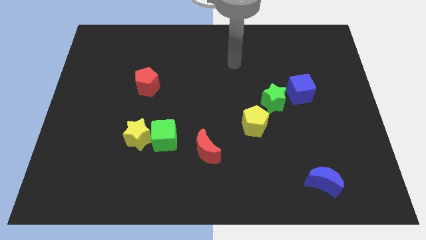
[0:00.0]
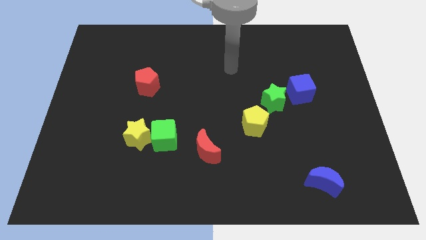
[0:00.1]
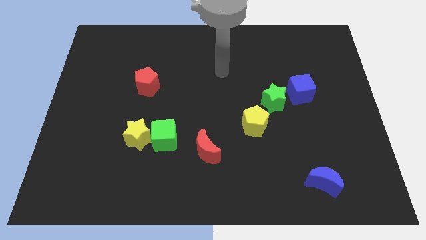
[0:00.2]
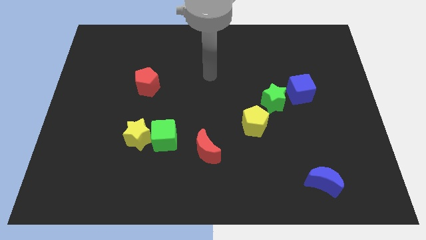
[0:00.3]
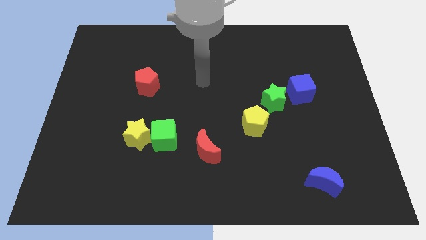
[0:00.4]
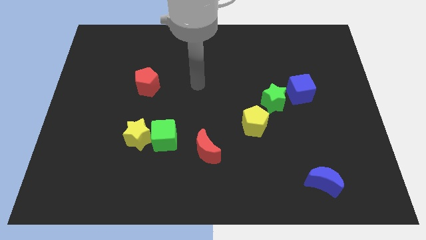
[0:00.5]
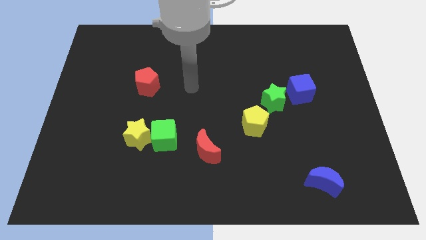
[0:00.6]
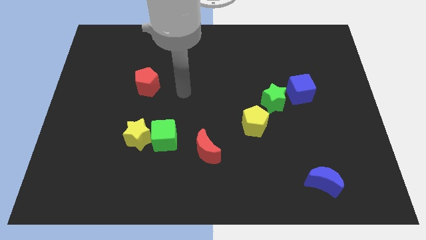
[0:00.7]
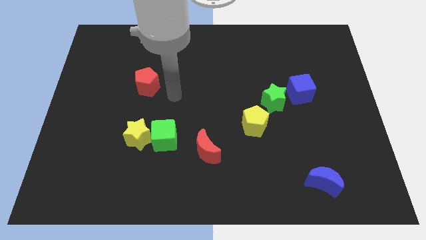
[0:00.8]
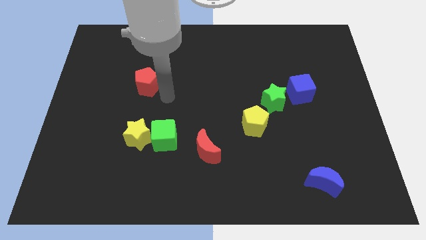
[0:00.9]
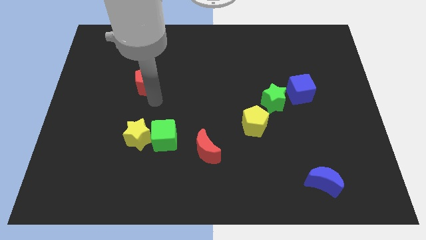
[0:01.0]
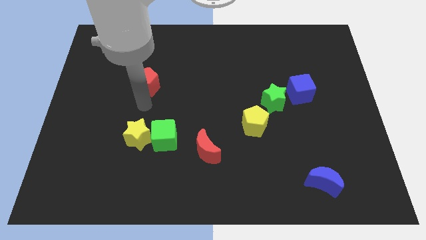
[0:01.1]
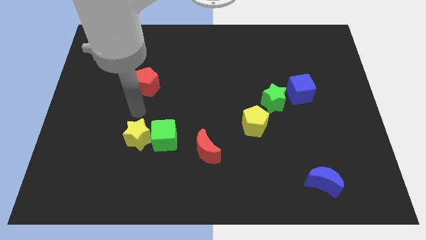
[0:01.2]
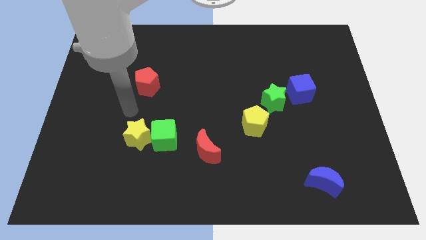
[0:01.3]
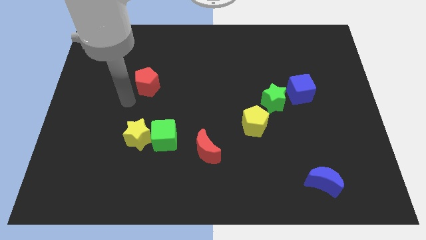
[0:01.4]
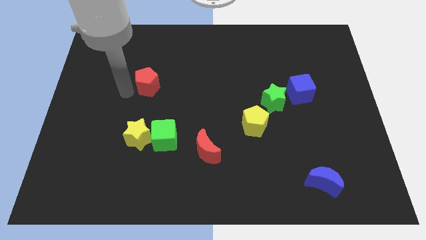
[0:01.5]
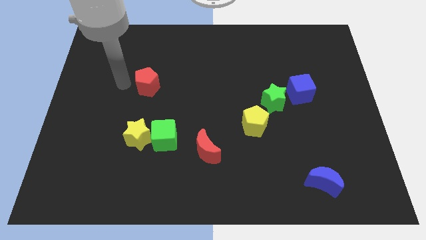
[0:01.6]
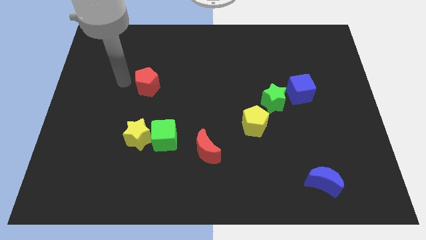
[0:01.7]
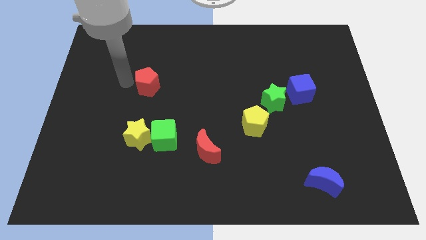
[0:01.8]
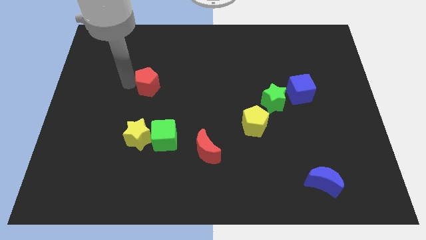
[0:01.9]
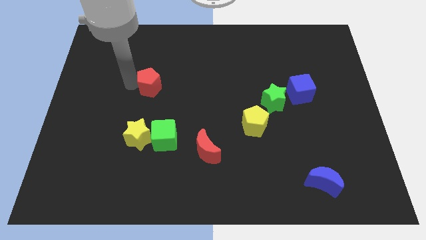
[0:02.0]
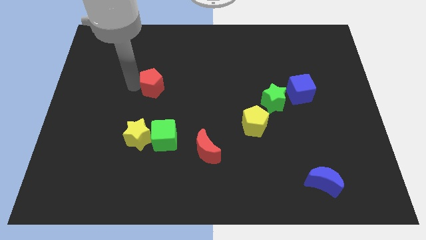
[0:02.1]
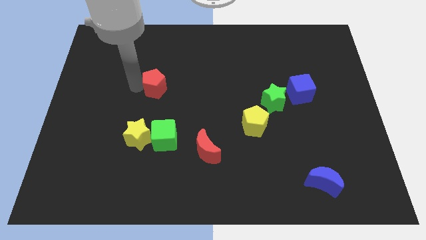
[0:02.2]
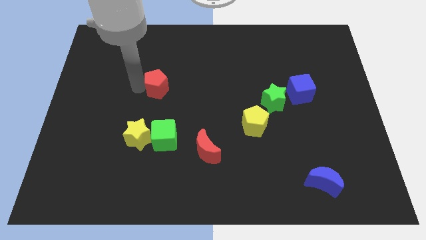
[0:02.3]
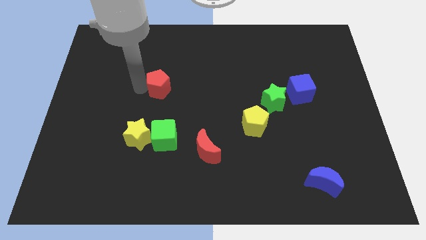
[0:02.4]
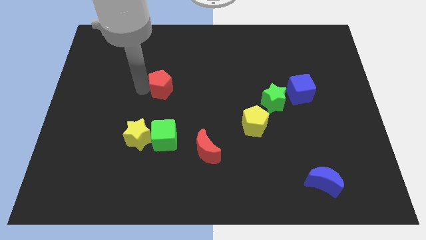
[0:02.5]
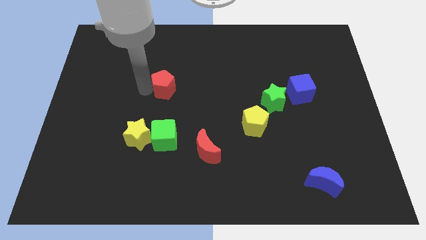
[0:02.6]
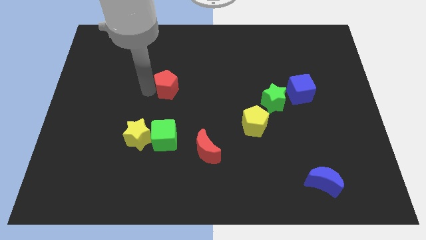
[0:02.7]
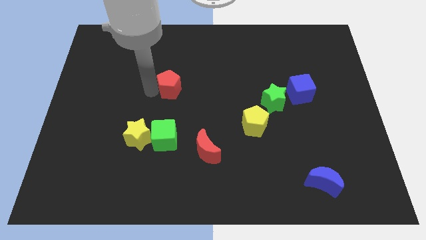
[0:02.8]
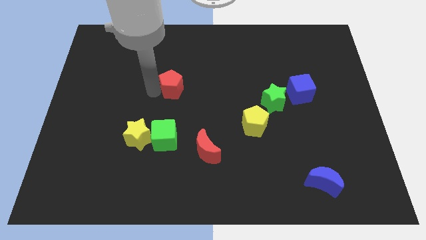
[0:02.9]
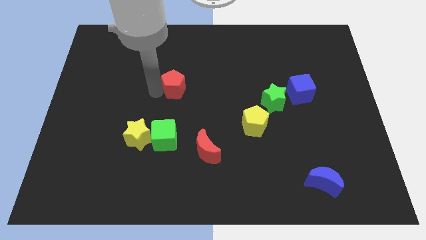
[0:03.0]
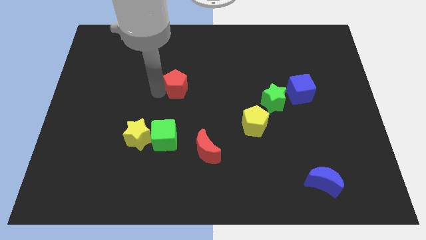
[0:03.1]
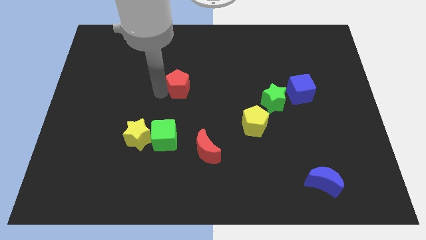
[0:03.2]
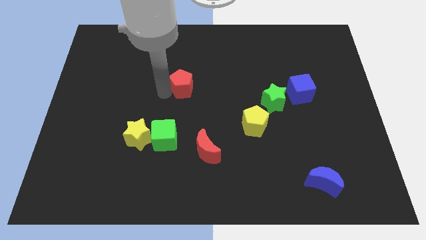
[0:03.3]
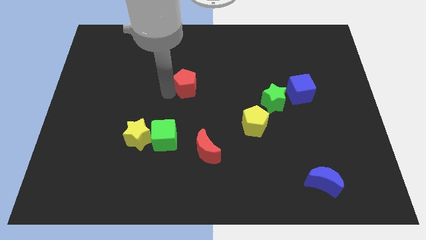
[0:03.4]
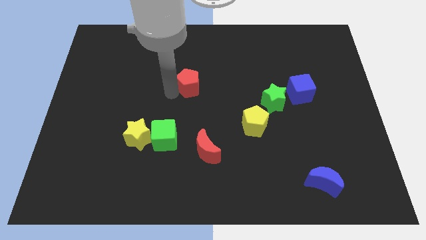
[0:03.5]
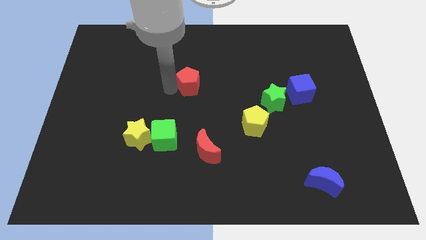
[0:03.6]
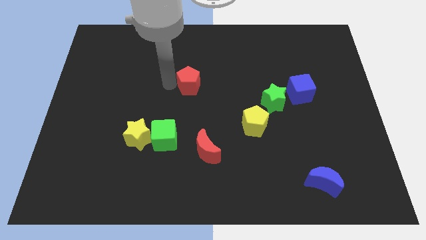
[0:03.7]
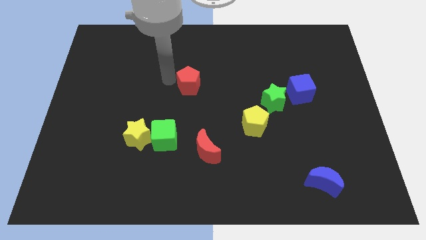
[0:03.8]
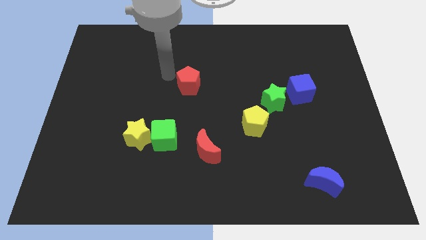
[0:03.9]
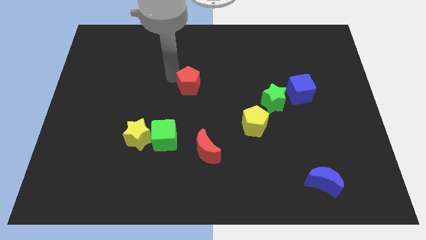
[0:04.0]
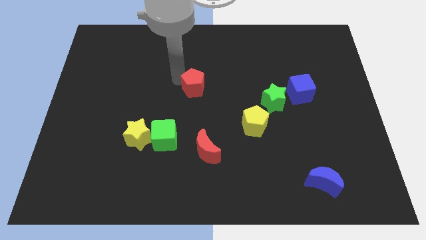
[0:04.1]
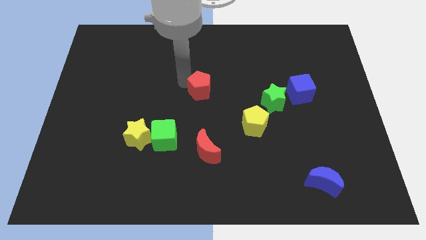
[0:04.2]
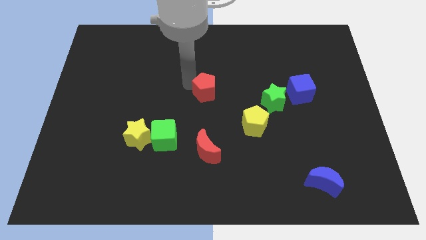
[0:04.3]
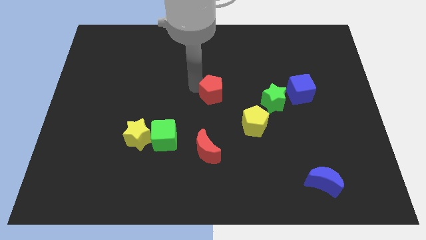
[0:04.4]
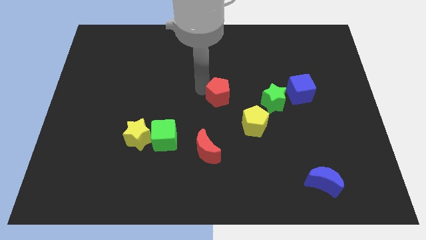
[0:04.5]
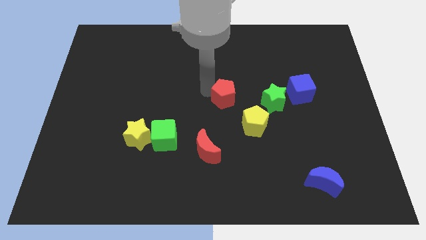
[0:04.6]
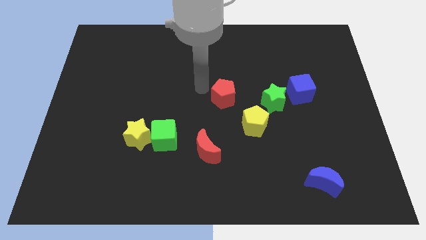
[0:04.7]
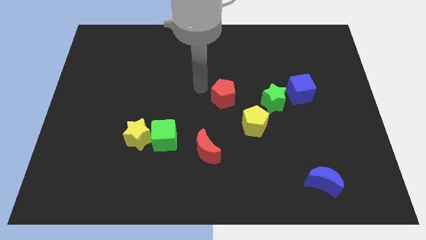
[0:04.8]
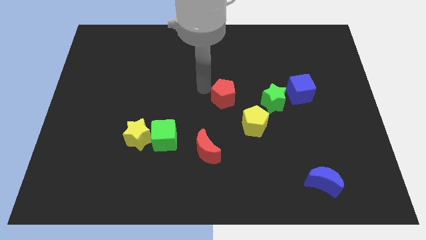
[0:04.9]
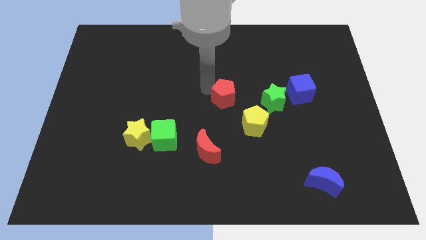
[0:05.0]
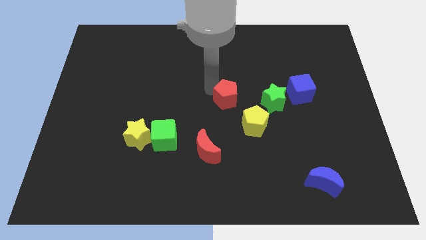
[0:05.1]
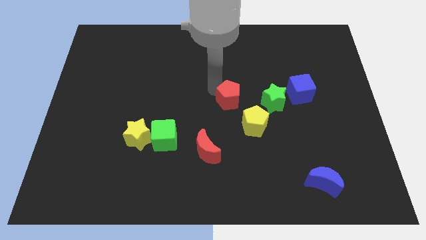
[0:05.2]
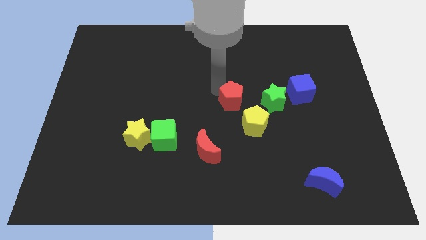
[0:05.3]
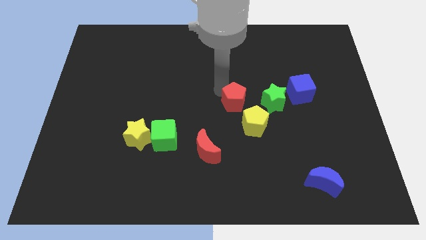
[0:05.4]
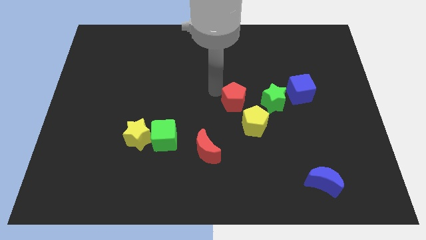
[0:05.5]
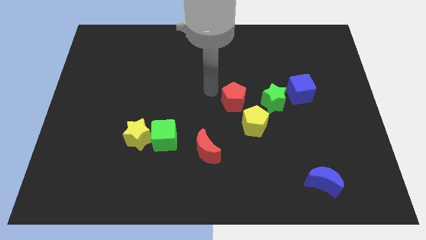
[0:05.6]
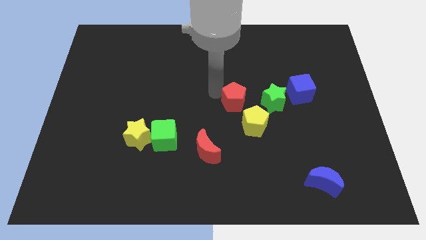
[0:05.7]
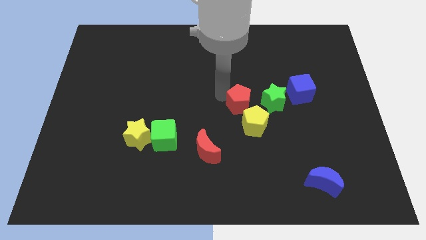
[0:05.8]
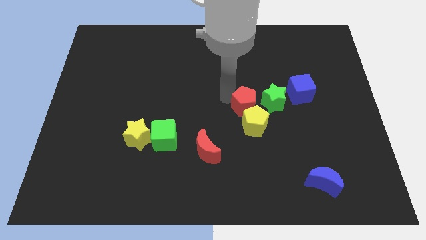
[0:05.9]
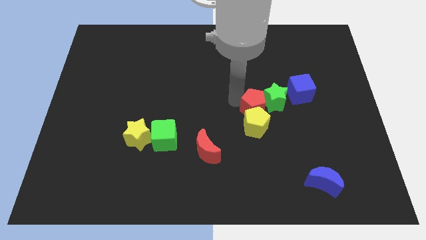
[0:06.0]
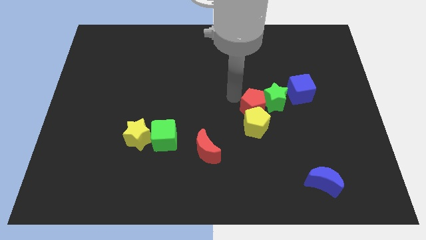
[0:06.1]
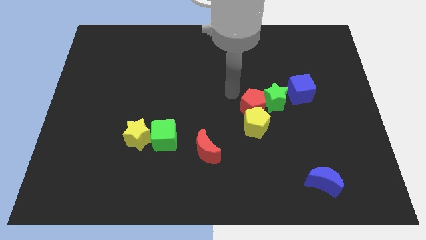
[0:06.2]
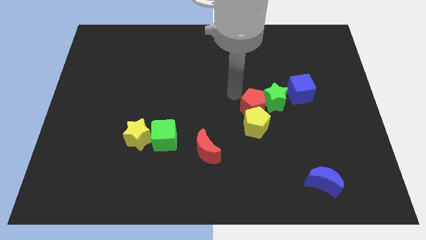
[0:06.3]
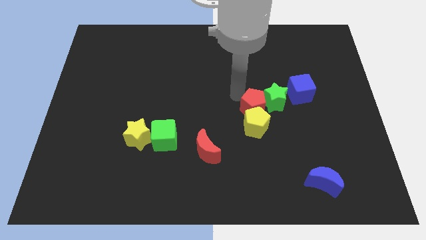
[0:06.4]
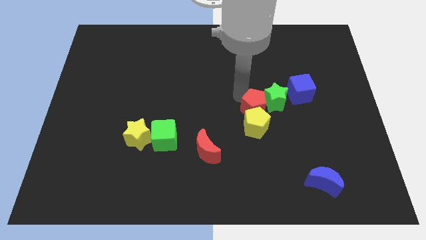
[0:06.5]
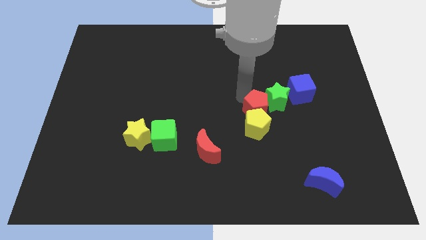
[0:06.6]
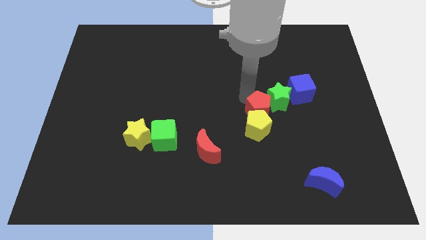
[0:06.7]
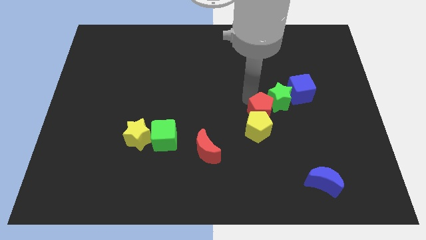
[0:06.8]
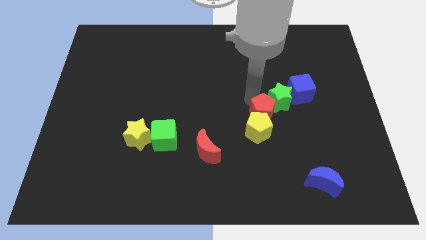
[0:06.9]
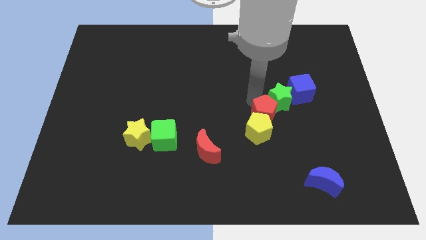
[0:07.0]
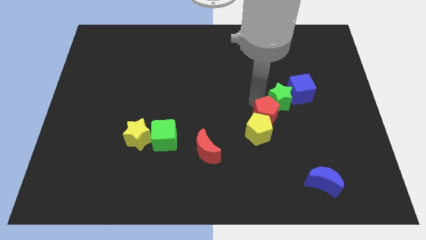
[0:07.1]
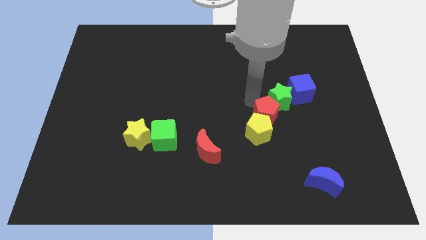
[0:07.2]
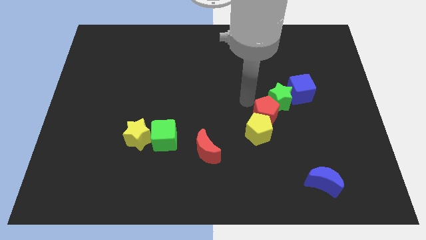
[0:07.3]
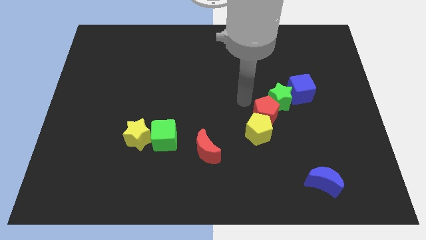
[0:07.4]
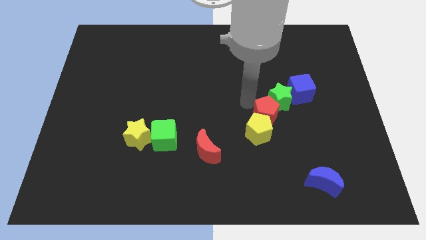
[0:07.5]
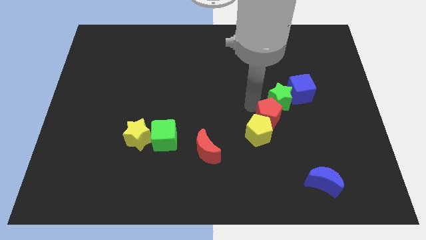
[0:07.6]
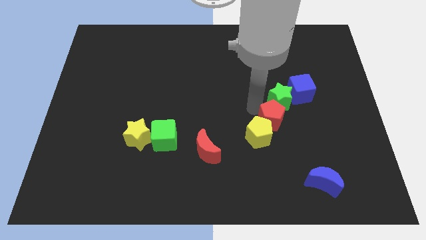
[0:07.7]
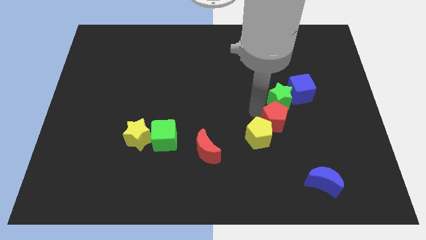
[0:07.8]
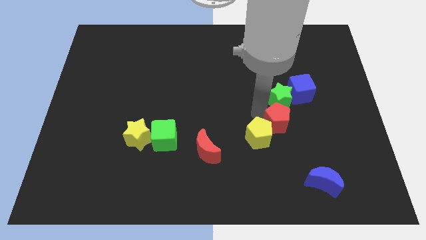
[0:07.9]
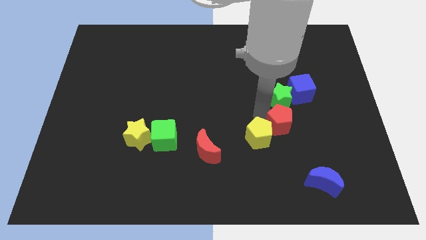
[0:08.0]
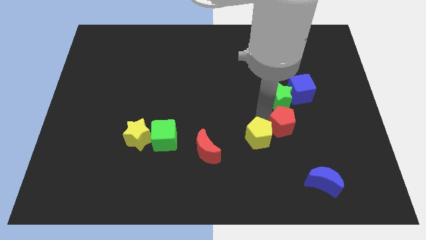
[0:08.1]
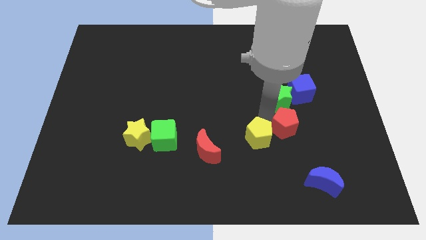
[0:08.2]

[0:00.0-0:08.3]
push the red pentagon to the bottom side of the blue cube
